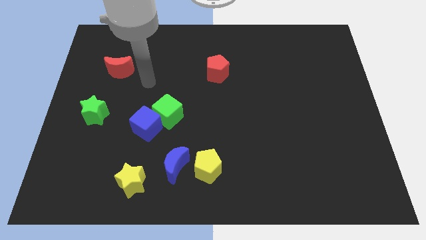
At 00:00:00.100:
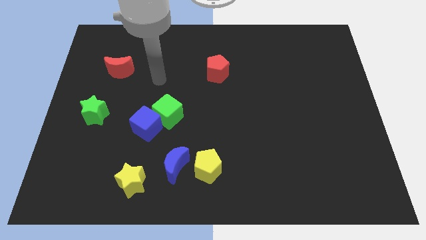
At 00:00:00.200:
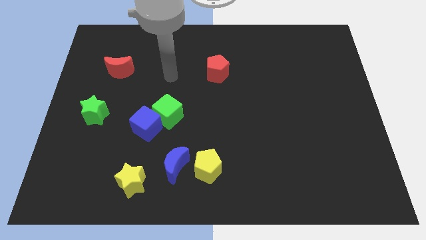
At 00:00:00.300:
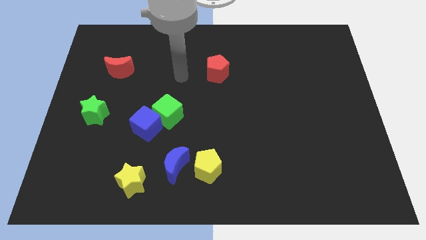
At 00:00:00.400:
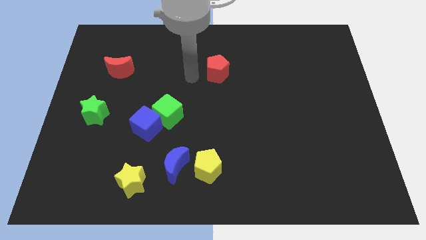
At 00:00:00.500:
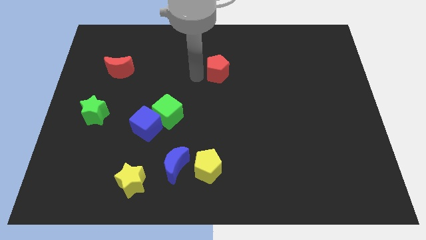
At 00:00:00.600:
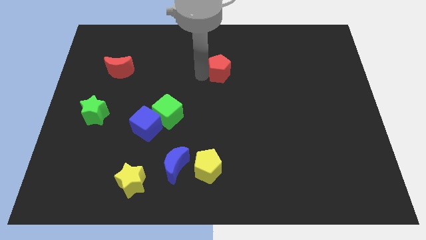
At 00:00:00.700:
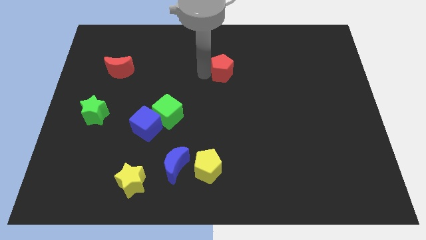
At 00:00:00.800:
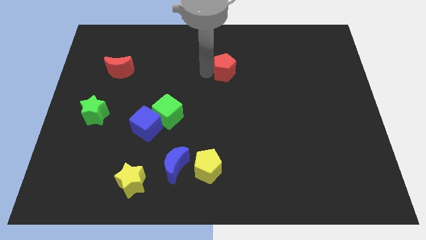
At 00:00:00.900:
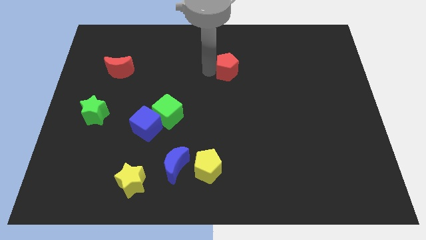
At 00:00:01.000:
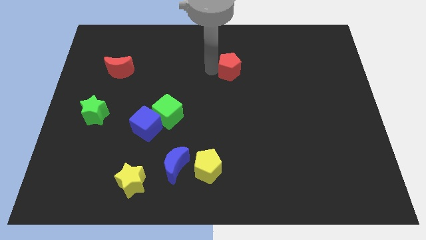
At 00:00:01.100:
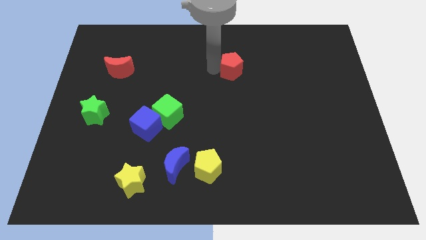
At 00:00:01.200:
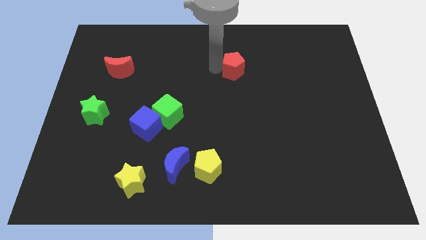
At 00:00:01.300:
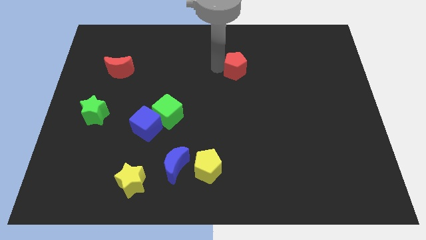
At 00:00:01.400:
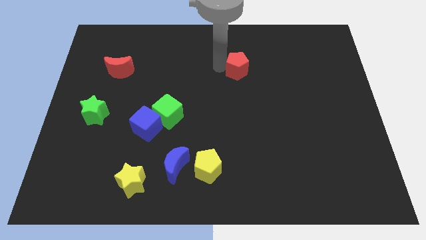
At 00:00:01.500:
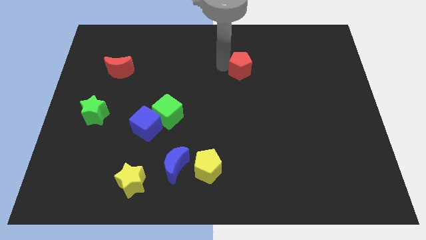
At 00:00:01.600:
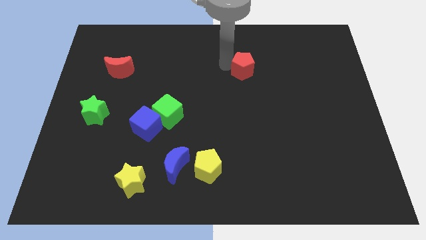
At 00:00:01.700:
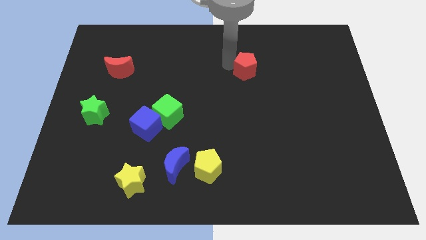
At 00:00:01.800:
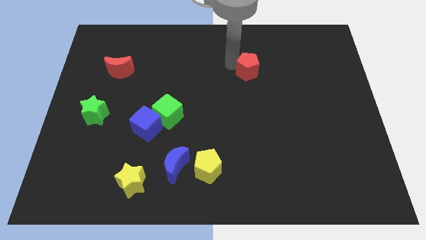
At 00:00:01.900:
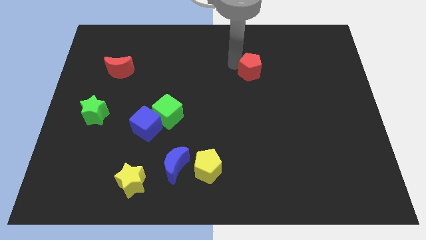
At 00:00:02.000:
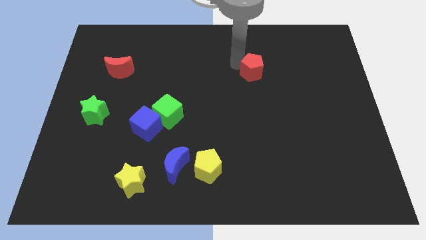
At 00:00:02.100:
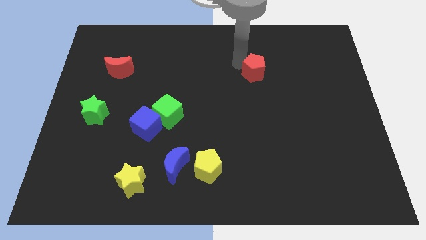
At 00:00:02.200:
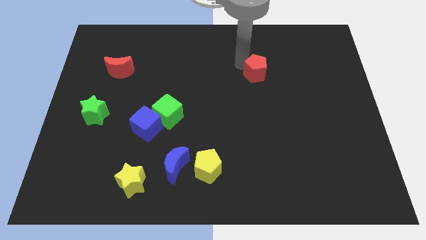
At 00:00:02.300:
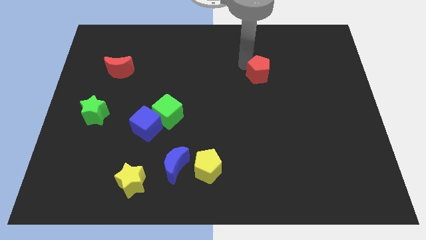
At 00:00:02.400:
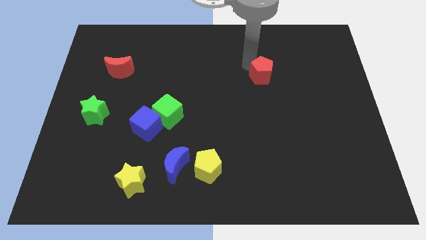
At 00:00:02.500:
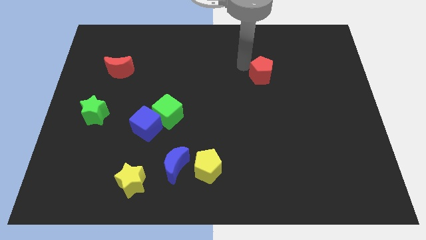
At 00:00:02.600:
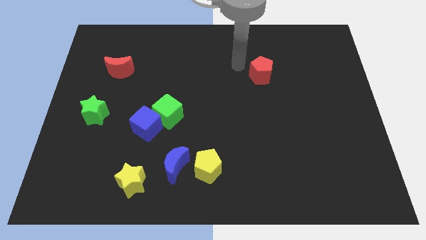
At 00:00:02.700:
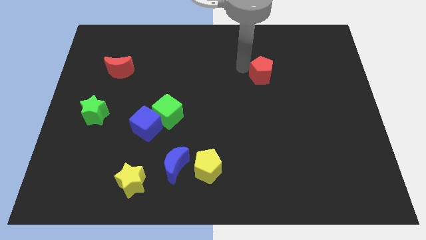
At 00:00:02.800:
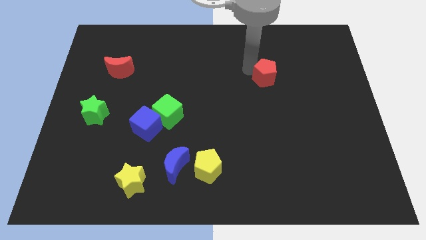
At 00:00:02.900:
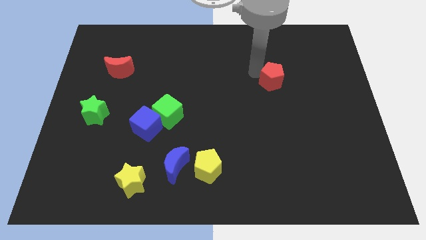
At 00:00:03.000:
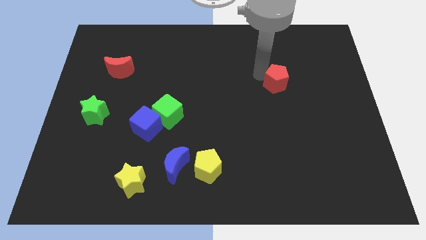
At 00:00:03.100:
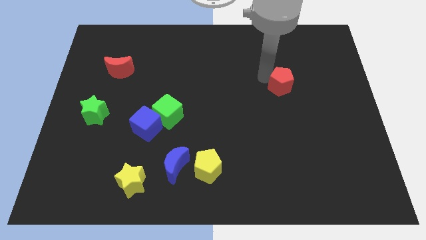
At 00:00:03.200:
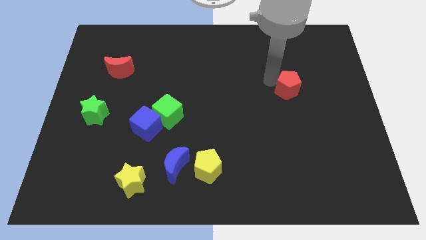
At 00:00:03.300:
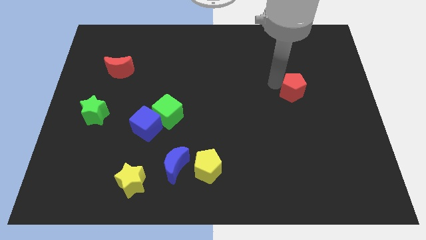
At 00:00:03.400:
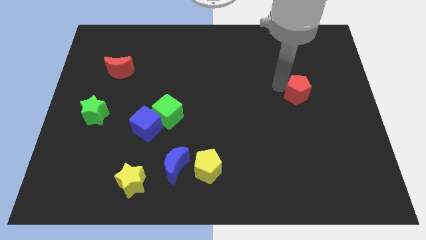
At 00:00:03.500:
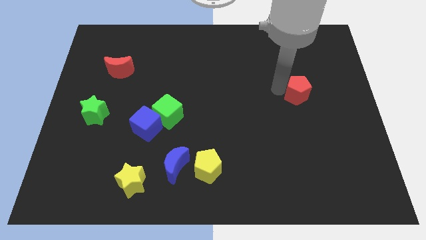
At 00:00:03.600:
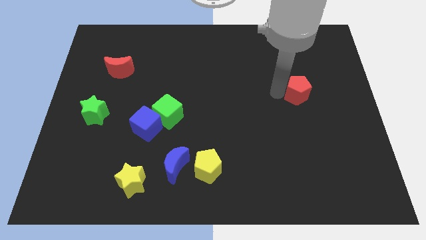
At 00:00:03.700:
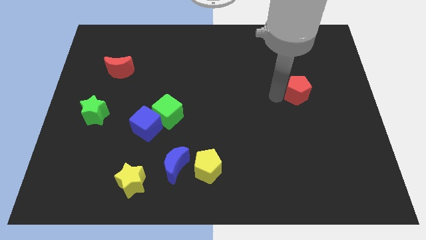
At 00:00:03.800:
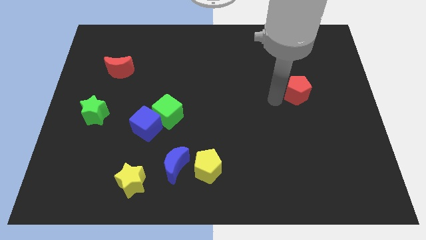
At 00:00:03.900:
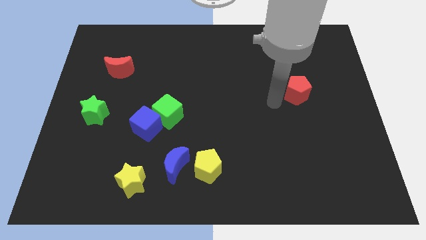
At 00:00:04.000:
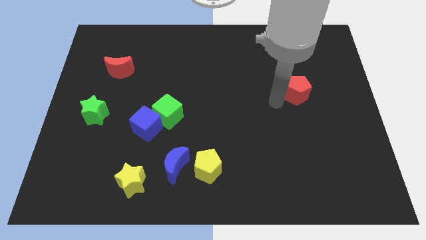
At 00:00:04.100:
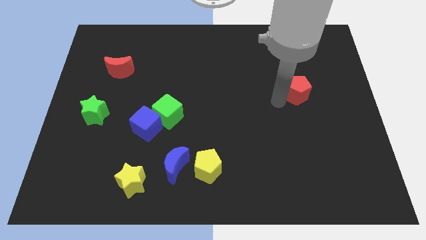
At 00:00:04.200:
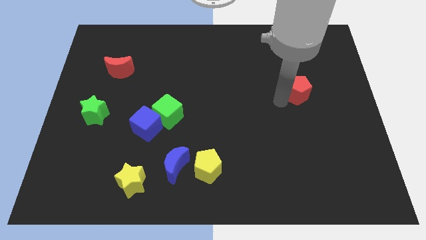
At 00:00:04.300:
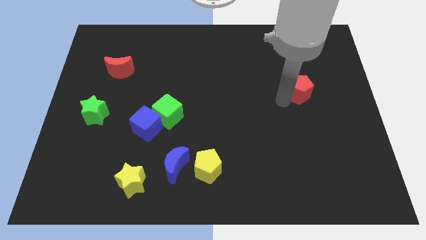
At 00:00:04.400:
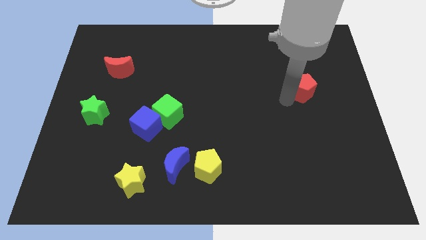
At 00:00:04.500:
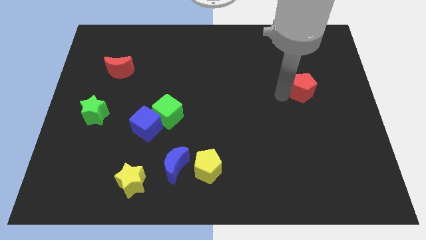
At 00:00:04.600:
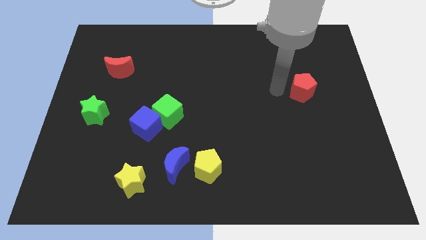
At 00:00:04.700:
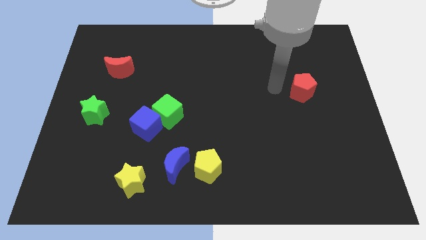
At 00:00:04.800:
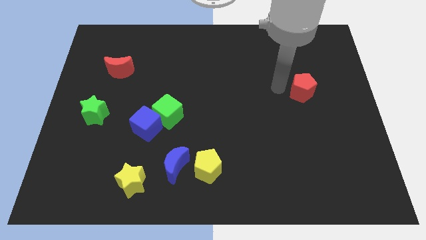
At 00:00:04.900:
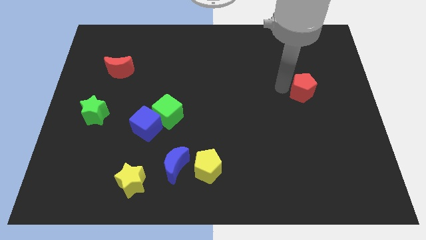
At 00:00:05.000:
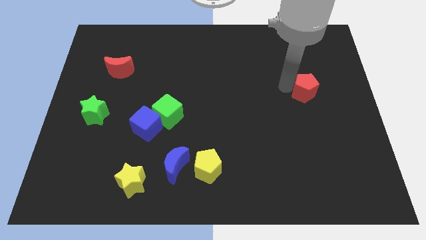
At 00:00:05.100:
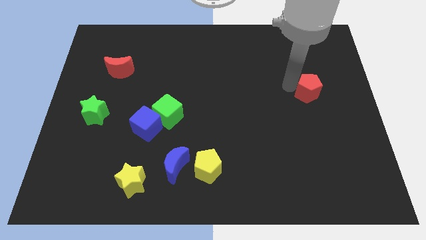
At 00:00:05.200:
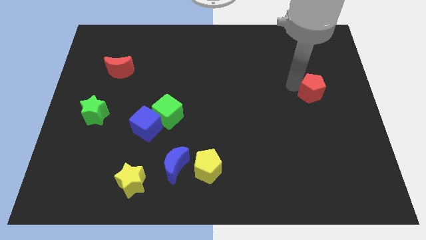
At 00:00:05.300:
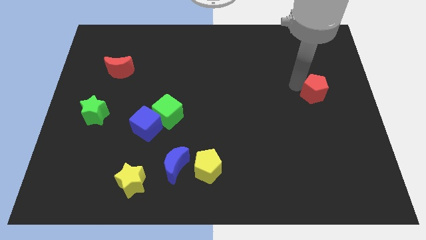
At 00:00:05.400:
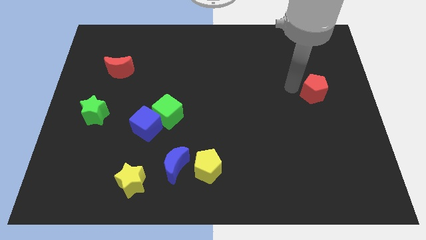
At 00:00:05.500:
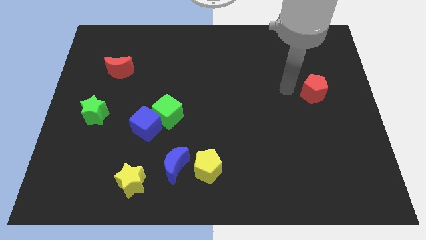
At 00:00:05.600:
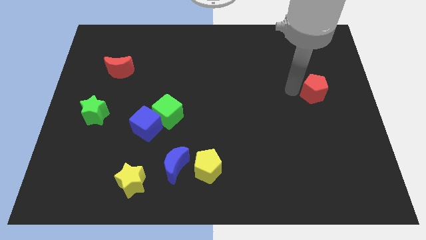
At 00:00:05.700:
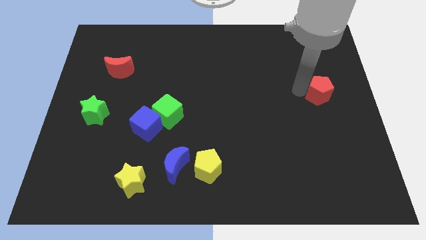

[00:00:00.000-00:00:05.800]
move the red pentagon to the right side
